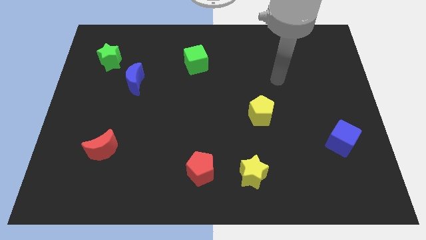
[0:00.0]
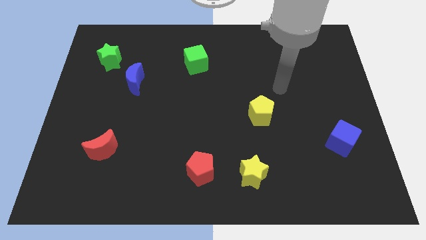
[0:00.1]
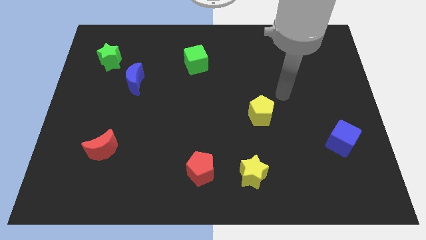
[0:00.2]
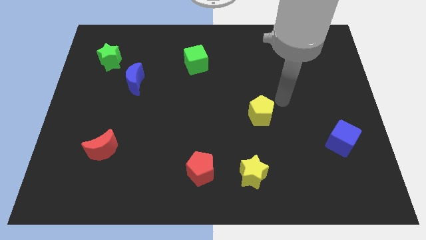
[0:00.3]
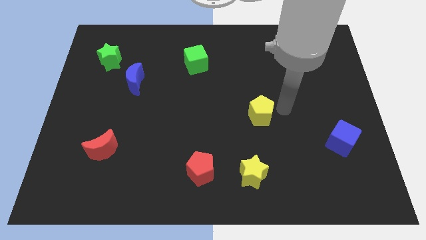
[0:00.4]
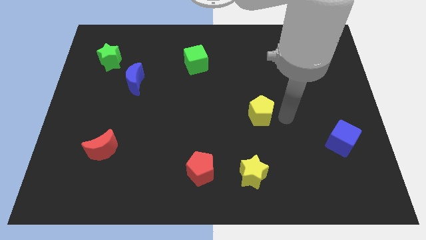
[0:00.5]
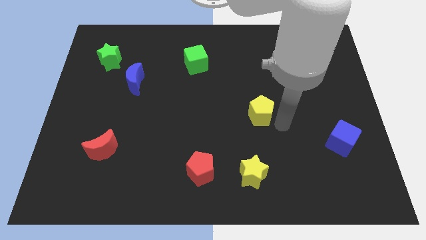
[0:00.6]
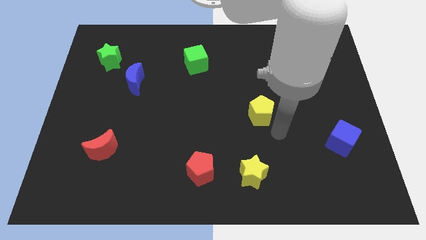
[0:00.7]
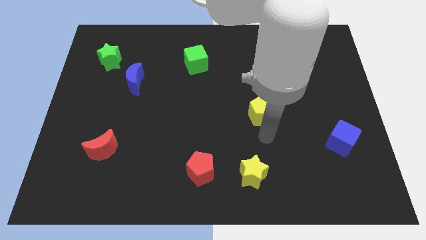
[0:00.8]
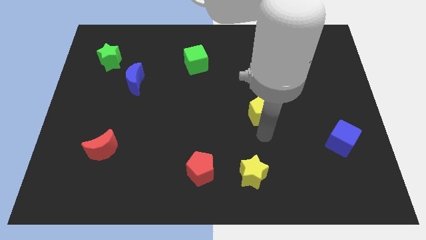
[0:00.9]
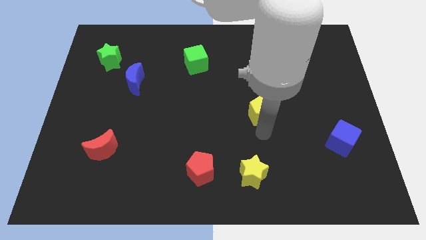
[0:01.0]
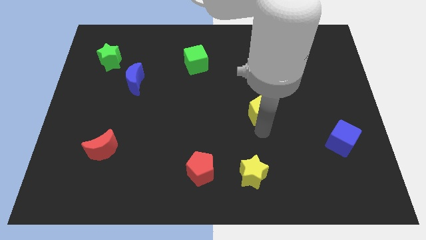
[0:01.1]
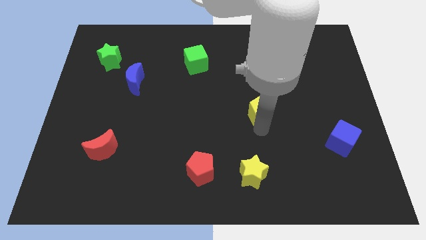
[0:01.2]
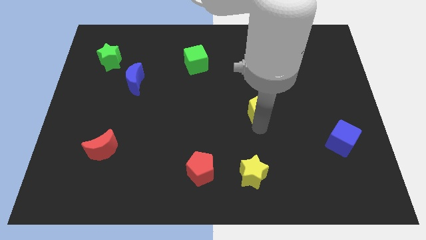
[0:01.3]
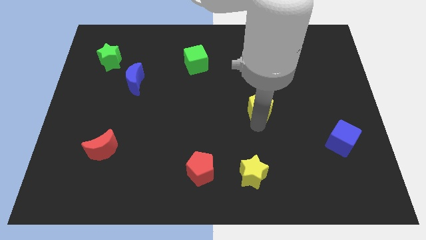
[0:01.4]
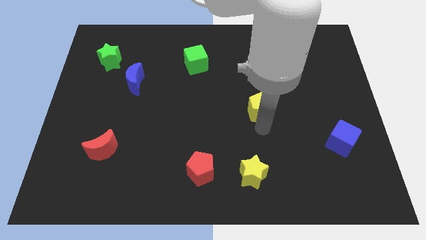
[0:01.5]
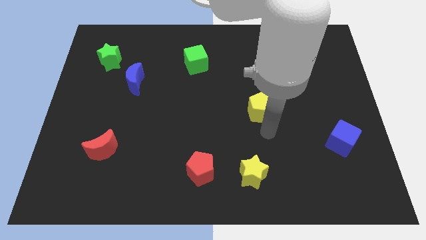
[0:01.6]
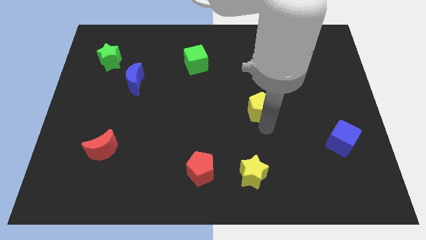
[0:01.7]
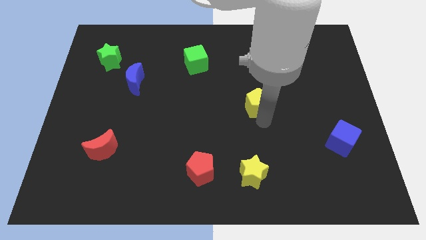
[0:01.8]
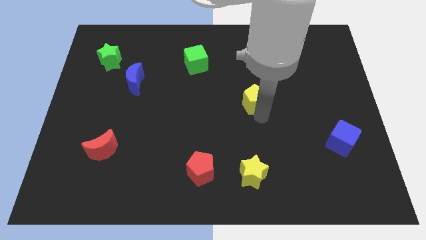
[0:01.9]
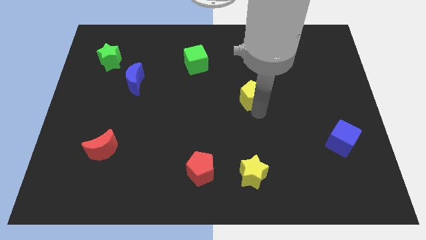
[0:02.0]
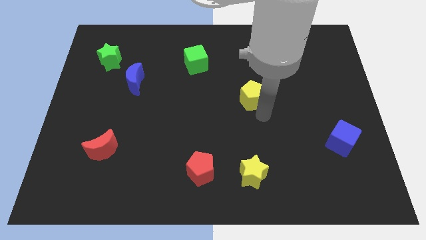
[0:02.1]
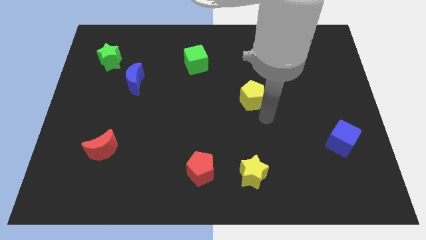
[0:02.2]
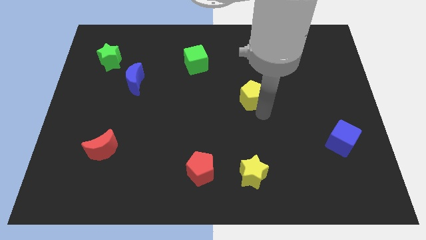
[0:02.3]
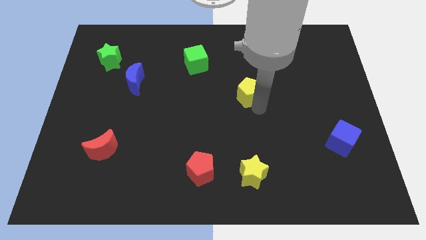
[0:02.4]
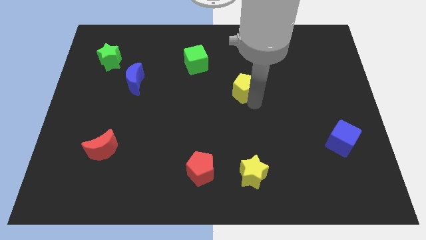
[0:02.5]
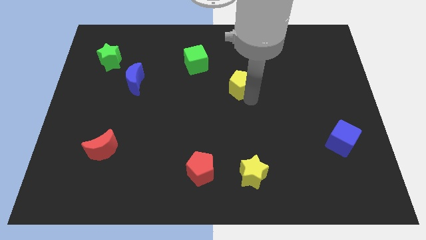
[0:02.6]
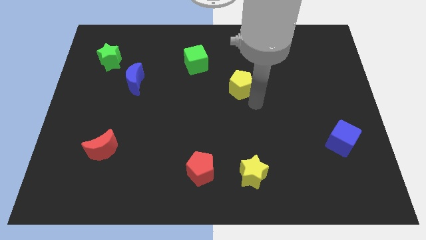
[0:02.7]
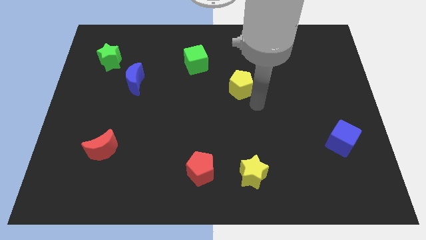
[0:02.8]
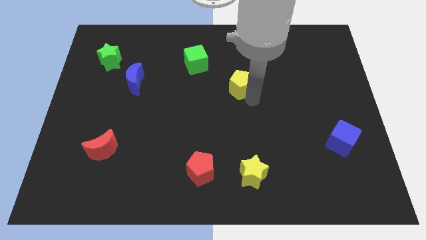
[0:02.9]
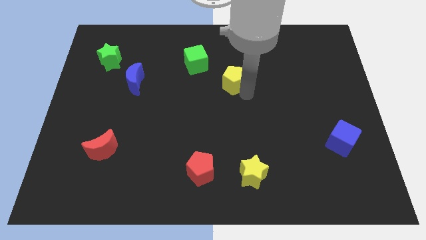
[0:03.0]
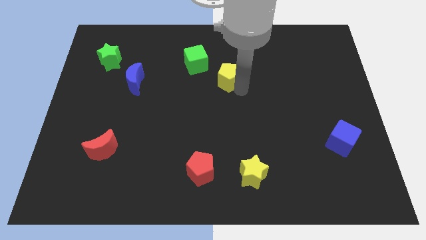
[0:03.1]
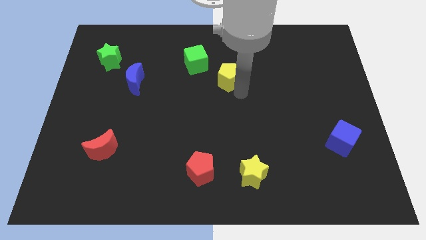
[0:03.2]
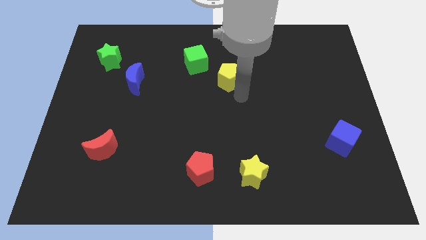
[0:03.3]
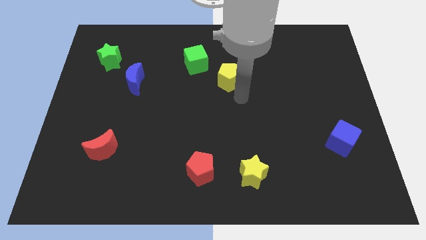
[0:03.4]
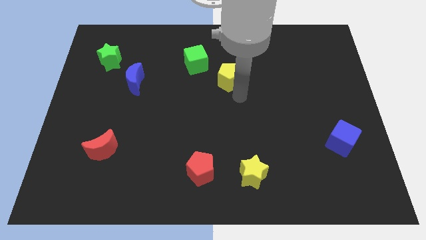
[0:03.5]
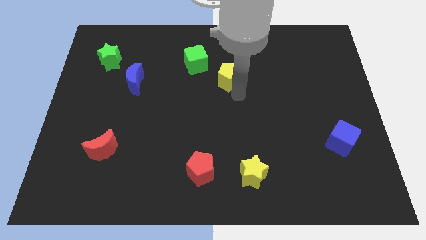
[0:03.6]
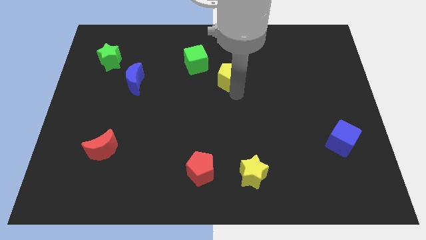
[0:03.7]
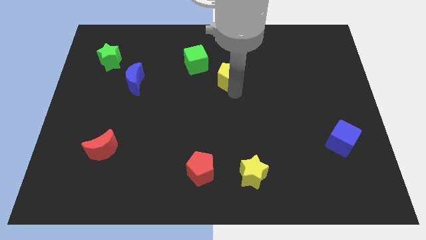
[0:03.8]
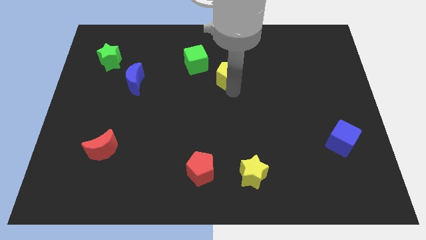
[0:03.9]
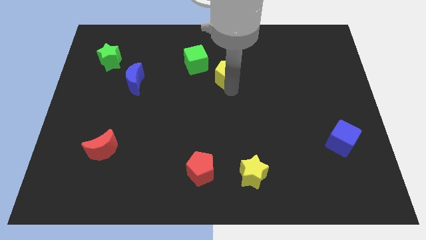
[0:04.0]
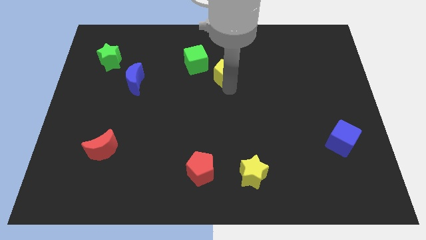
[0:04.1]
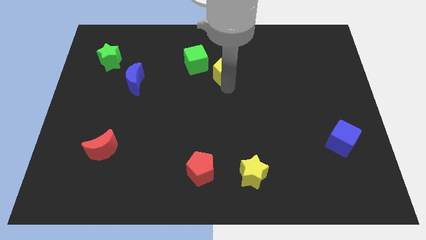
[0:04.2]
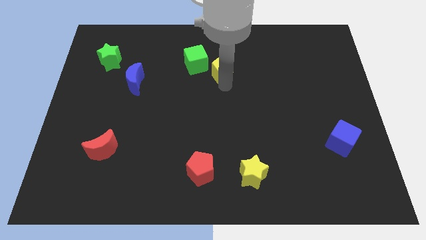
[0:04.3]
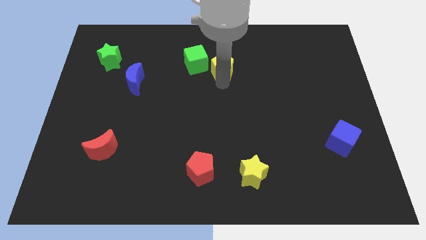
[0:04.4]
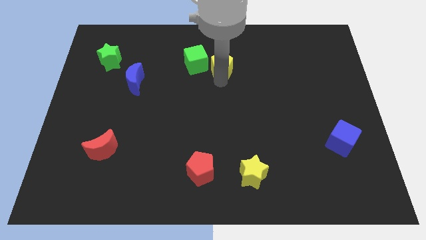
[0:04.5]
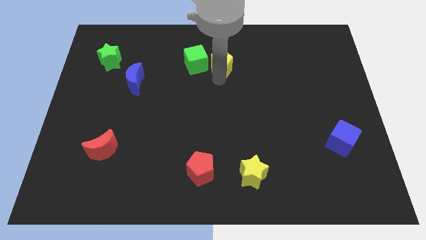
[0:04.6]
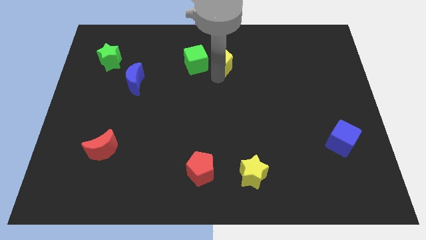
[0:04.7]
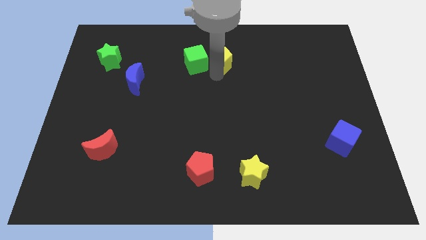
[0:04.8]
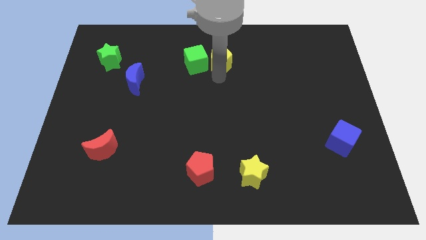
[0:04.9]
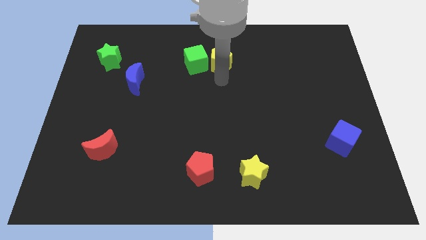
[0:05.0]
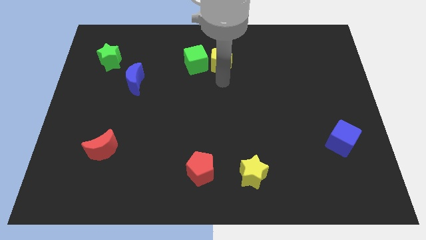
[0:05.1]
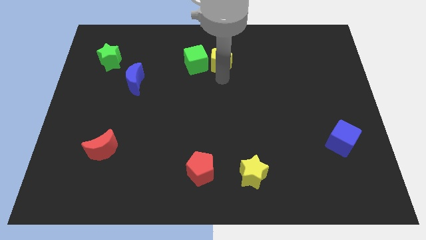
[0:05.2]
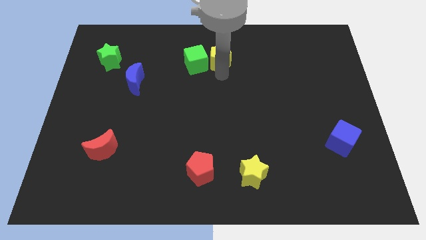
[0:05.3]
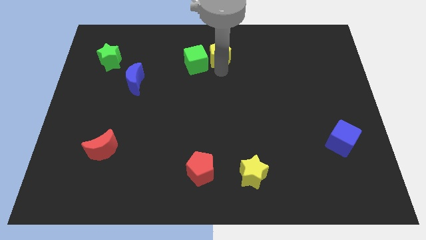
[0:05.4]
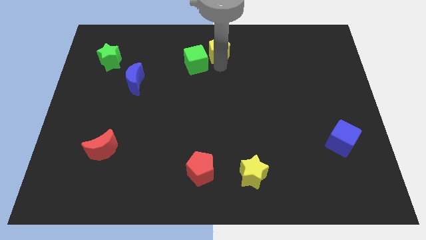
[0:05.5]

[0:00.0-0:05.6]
move the yellow pentagon to the top side
